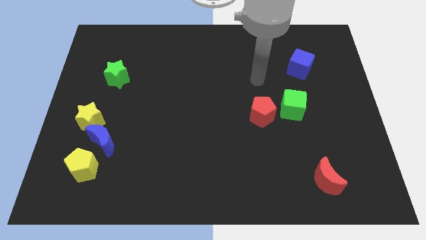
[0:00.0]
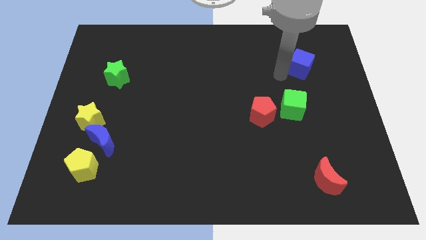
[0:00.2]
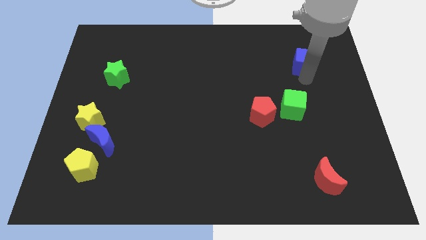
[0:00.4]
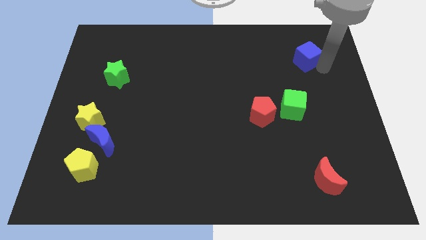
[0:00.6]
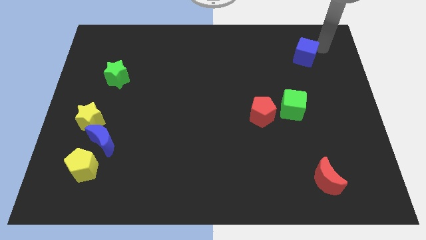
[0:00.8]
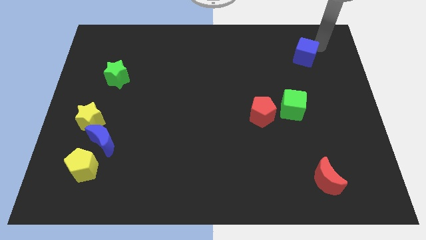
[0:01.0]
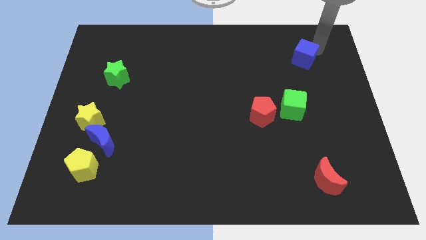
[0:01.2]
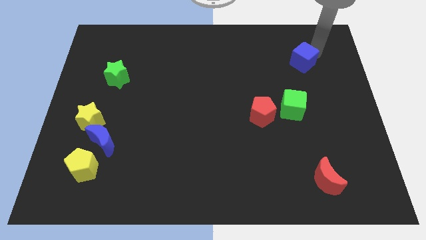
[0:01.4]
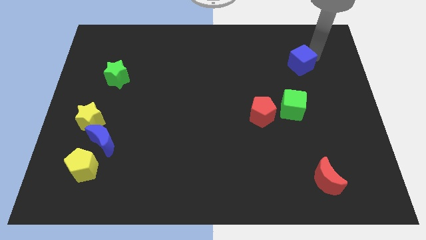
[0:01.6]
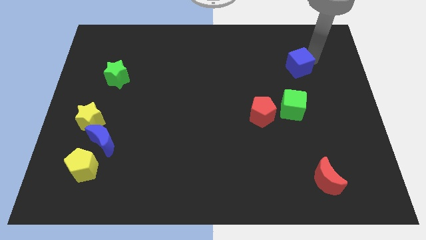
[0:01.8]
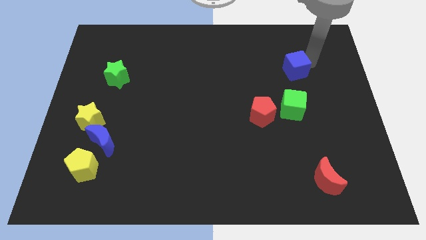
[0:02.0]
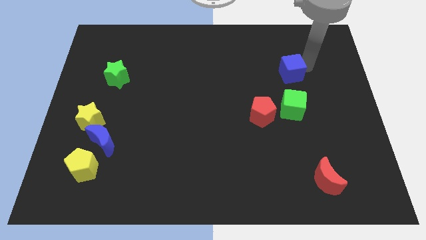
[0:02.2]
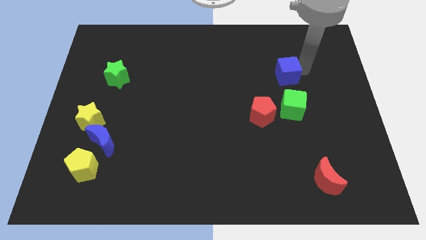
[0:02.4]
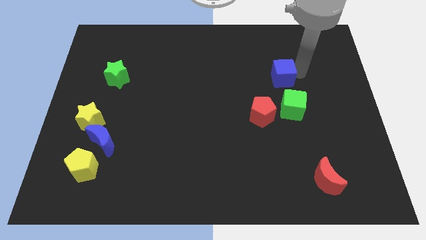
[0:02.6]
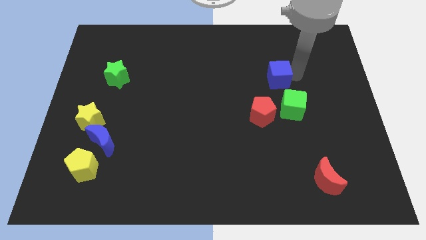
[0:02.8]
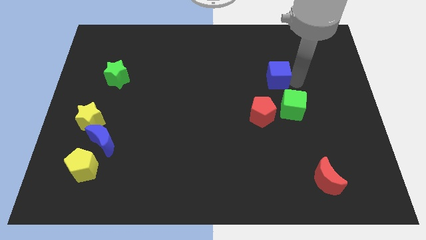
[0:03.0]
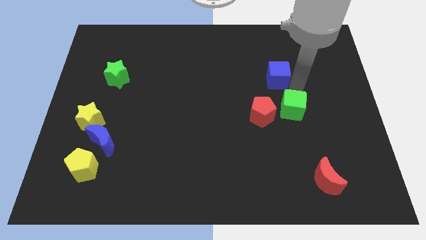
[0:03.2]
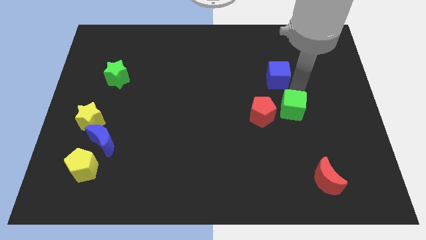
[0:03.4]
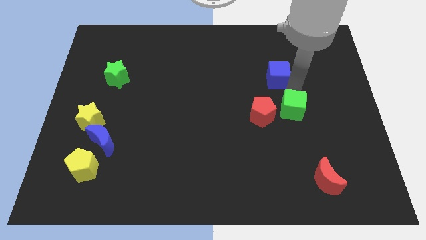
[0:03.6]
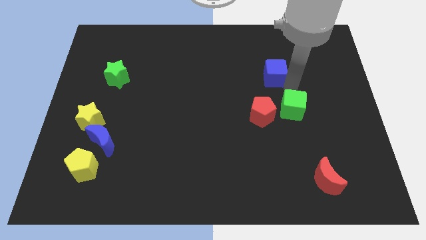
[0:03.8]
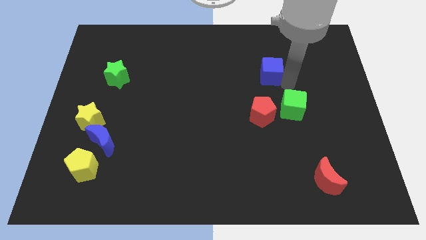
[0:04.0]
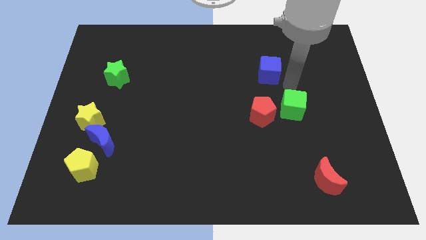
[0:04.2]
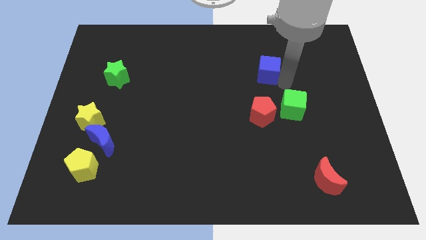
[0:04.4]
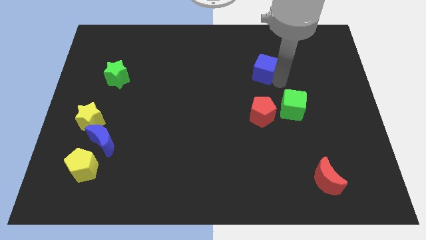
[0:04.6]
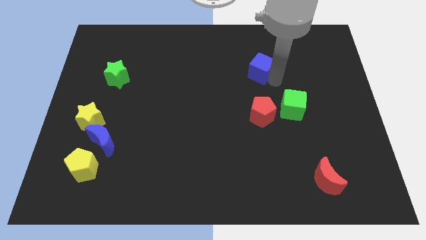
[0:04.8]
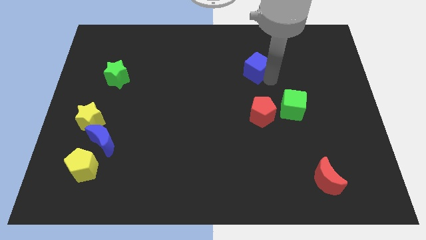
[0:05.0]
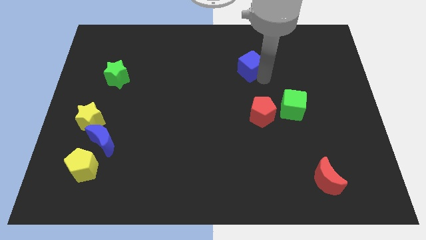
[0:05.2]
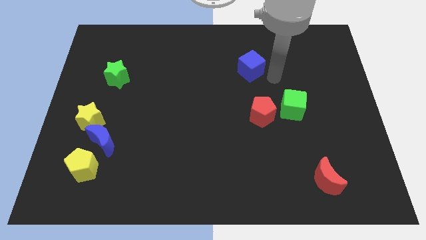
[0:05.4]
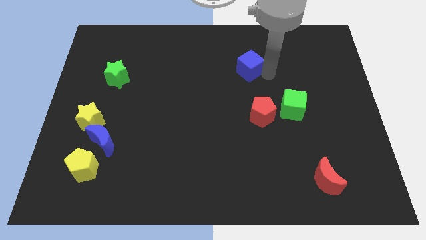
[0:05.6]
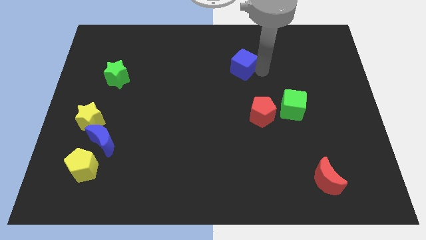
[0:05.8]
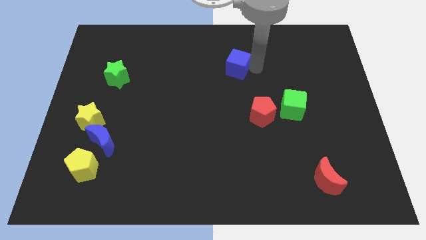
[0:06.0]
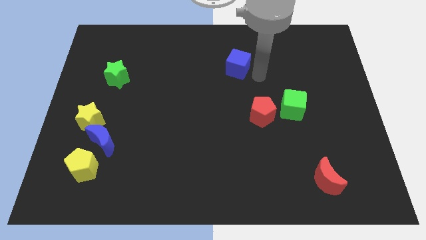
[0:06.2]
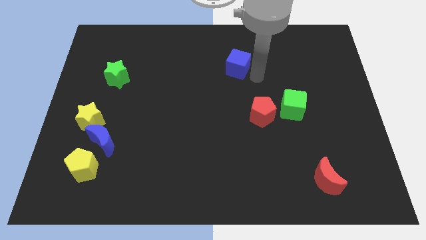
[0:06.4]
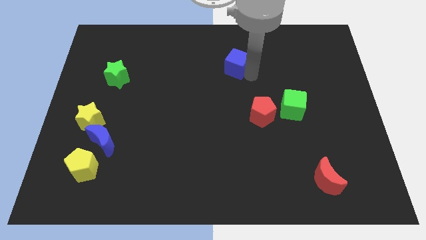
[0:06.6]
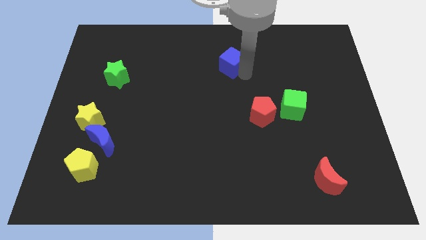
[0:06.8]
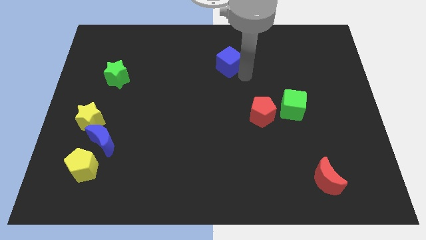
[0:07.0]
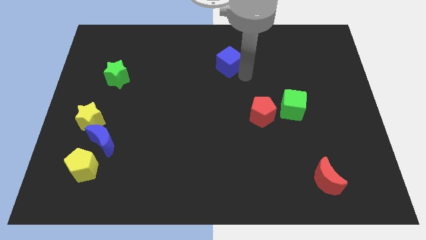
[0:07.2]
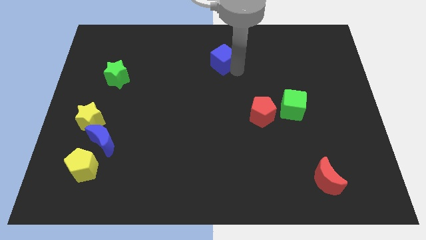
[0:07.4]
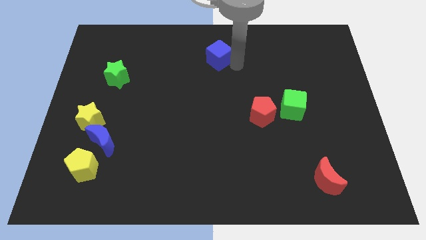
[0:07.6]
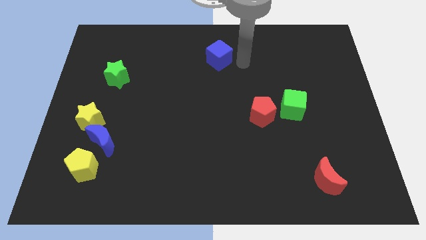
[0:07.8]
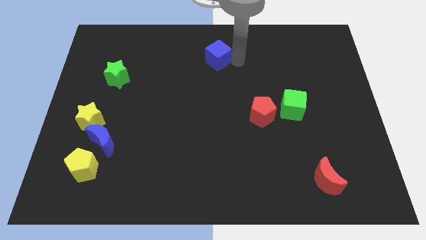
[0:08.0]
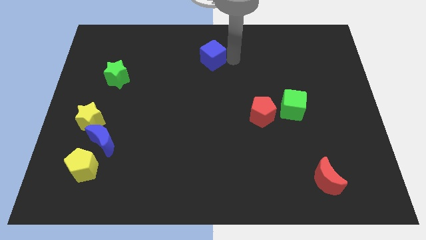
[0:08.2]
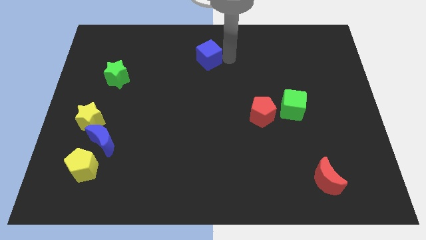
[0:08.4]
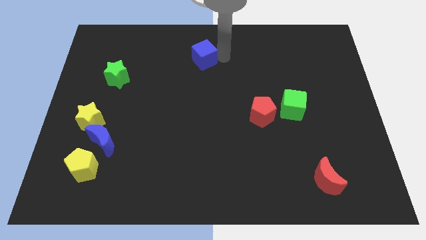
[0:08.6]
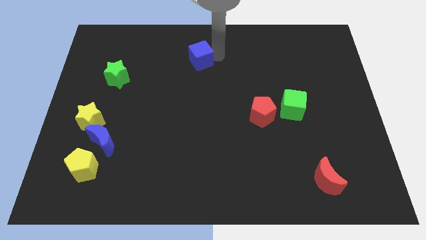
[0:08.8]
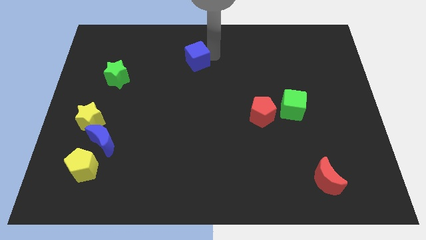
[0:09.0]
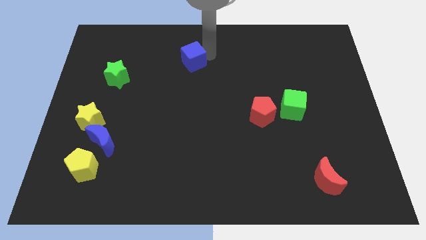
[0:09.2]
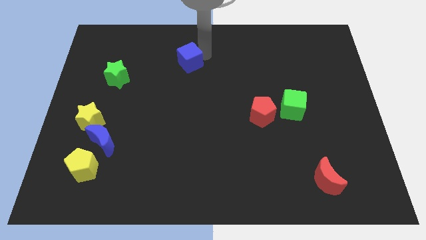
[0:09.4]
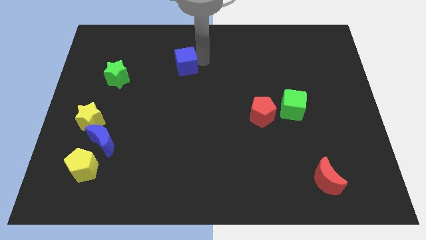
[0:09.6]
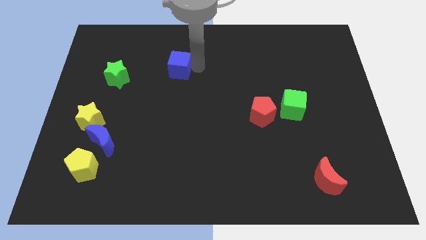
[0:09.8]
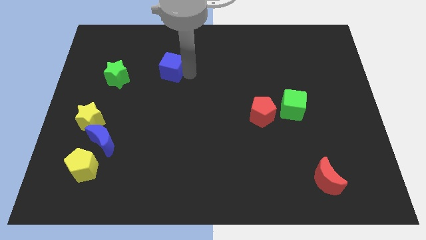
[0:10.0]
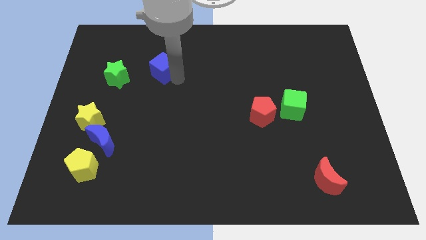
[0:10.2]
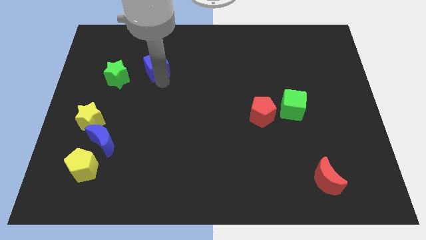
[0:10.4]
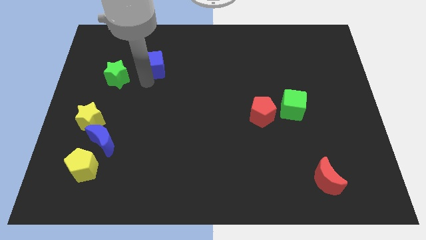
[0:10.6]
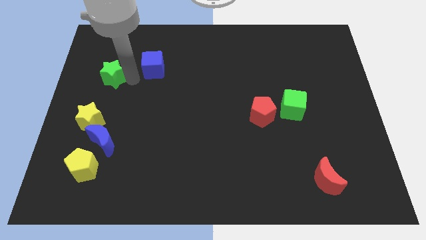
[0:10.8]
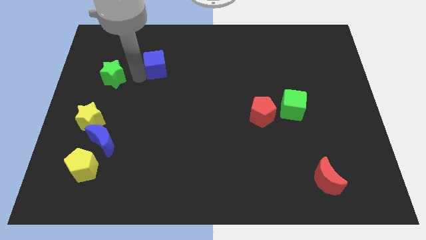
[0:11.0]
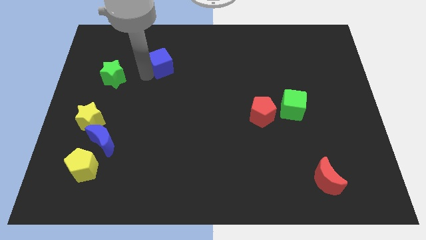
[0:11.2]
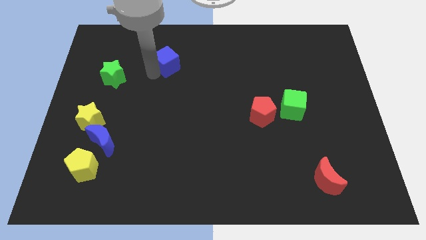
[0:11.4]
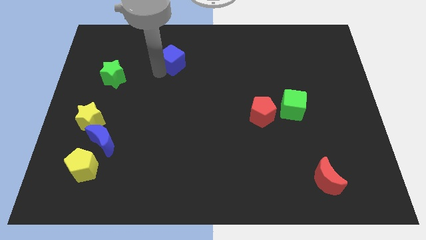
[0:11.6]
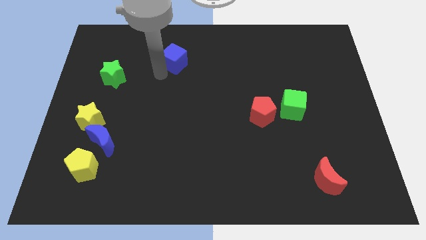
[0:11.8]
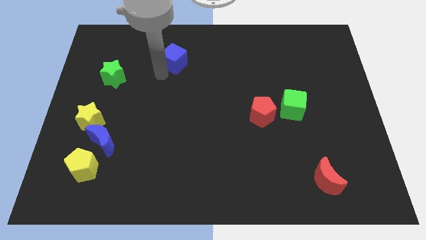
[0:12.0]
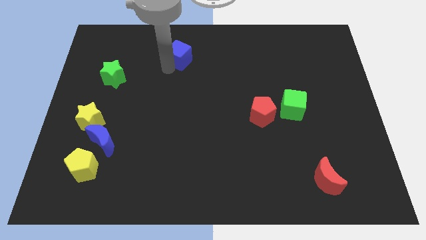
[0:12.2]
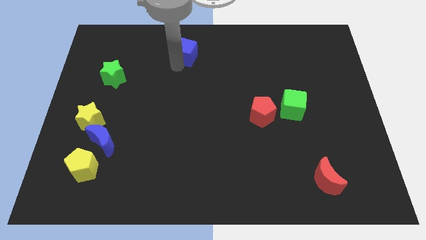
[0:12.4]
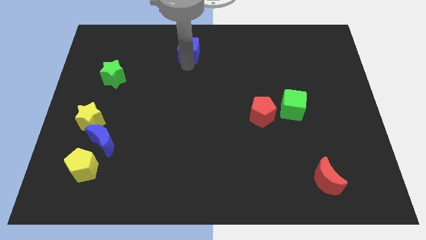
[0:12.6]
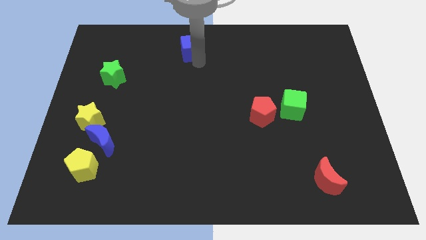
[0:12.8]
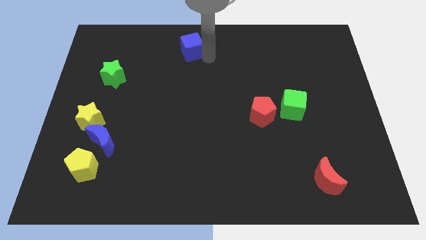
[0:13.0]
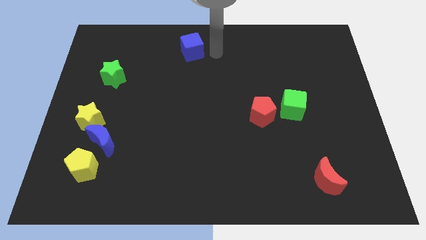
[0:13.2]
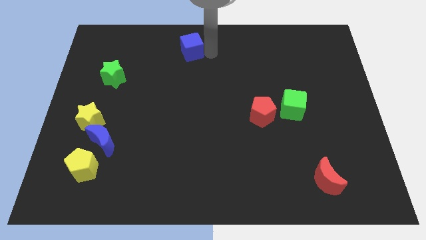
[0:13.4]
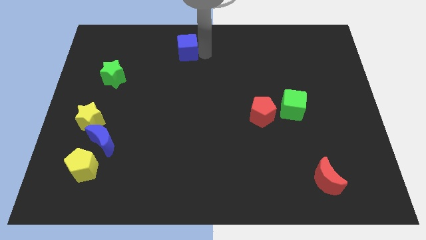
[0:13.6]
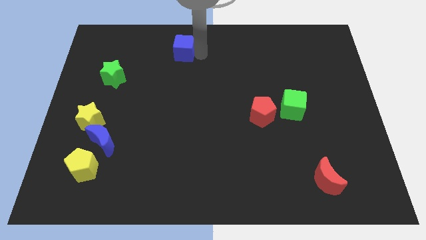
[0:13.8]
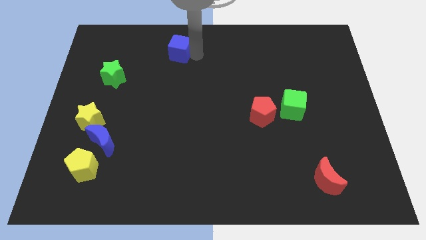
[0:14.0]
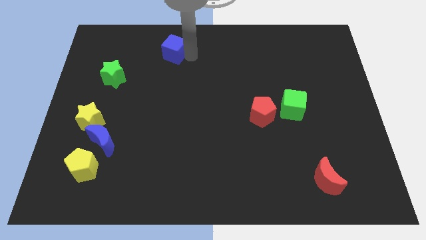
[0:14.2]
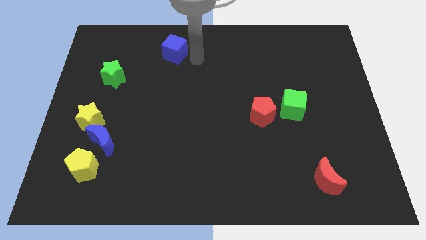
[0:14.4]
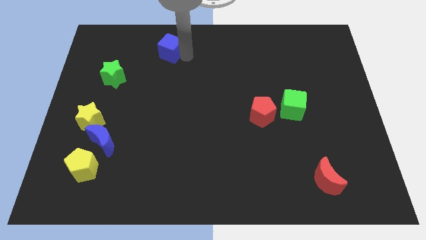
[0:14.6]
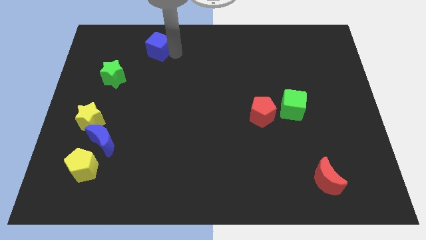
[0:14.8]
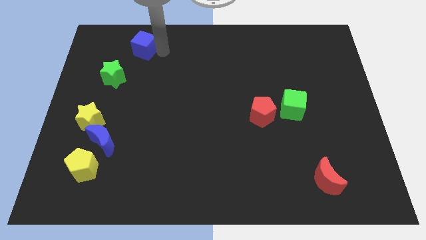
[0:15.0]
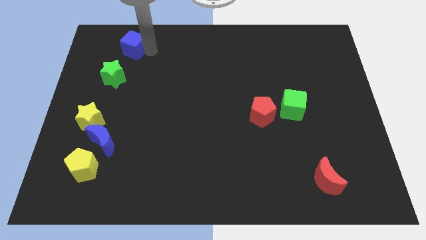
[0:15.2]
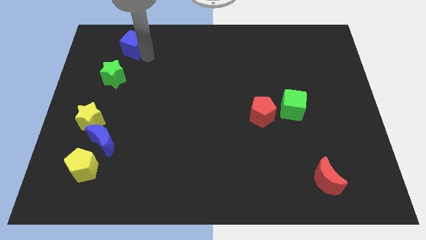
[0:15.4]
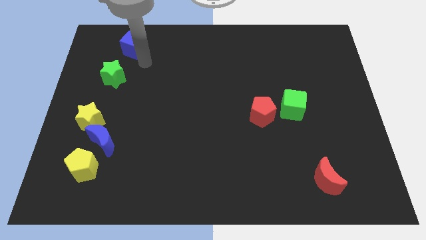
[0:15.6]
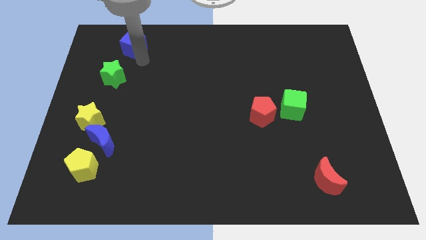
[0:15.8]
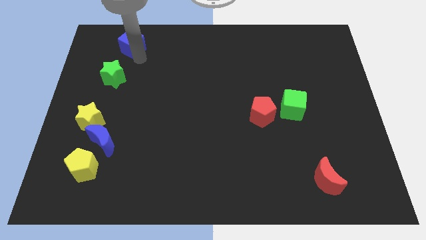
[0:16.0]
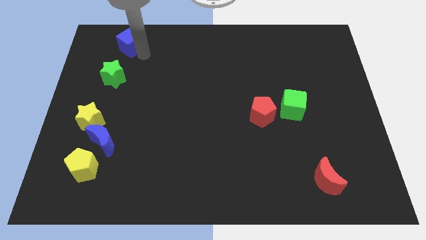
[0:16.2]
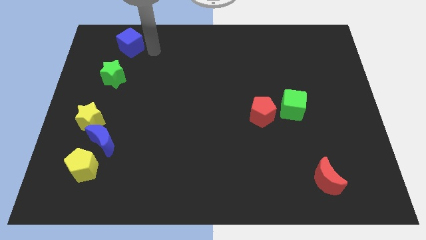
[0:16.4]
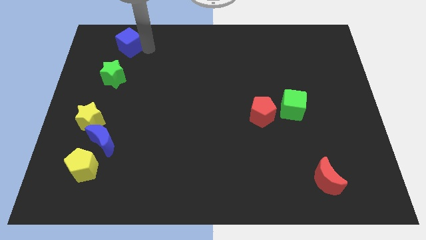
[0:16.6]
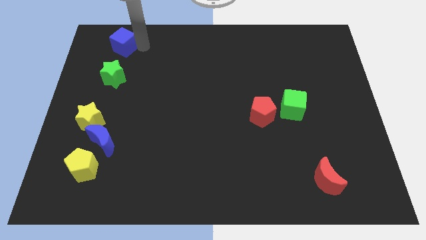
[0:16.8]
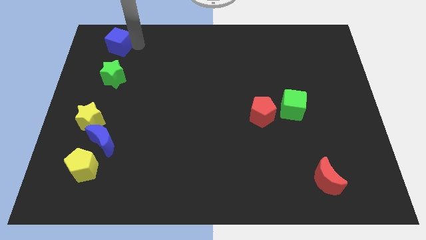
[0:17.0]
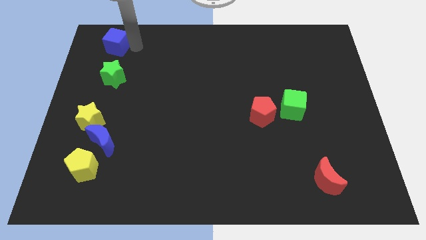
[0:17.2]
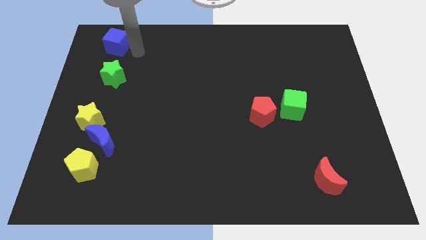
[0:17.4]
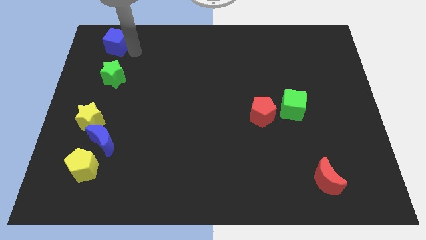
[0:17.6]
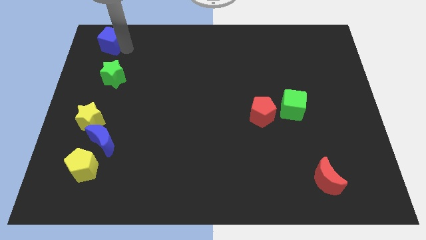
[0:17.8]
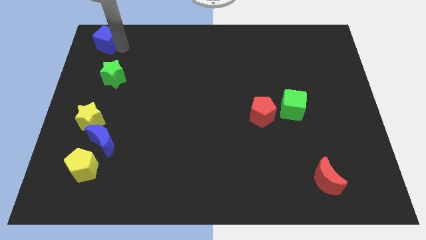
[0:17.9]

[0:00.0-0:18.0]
move the blue cube to the top left
